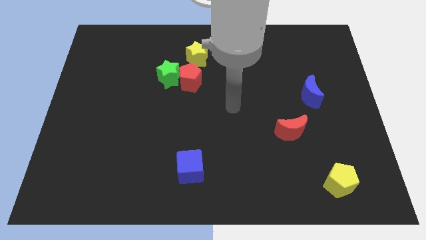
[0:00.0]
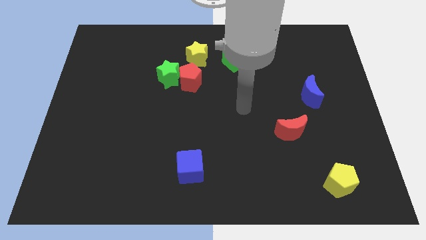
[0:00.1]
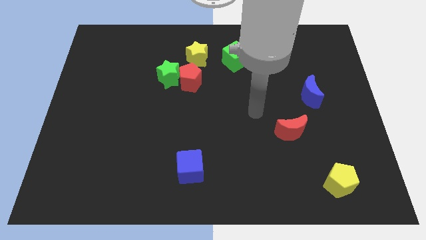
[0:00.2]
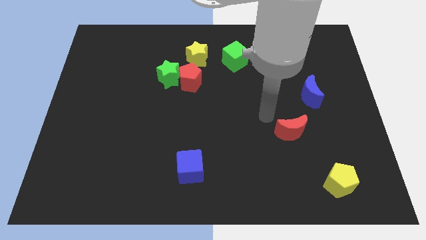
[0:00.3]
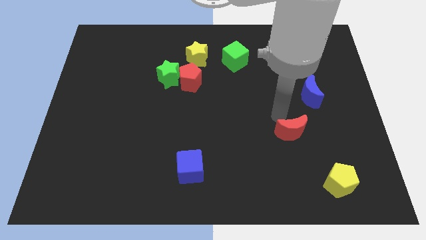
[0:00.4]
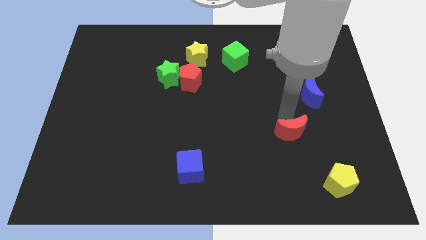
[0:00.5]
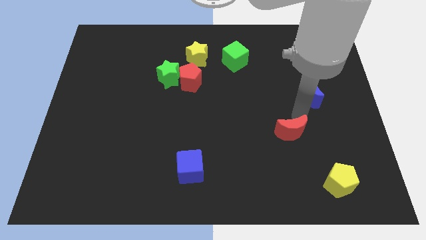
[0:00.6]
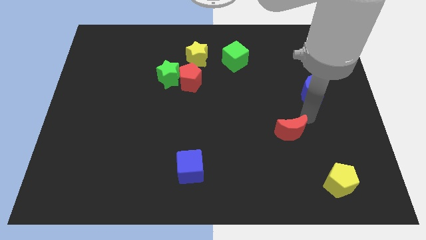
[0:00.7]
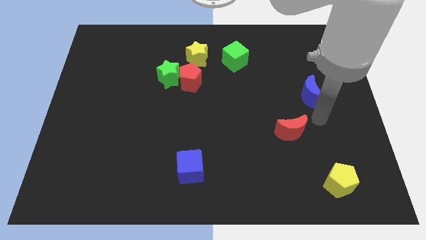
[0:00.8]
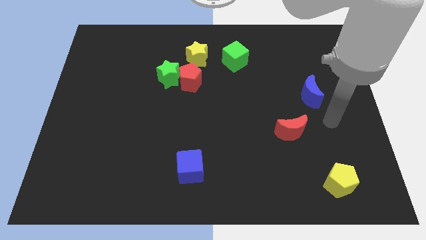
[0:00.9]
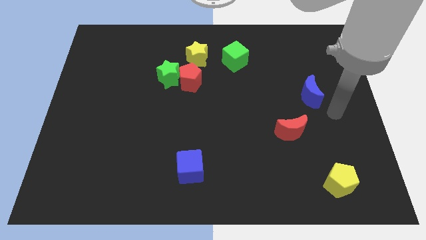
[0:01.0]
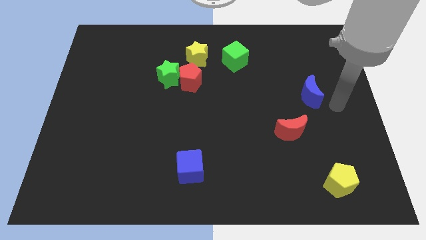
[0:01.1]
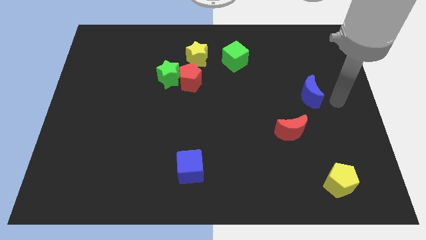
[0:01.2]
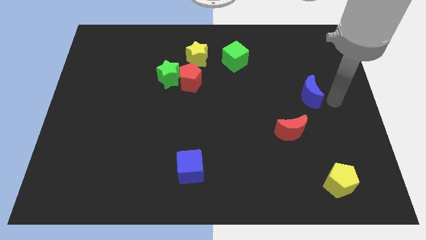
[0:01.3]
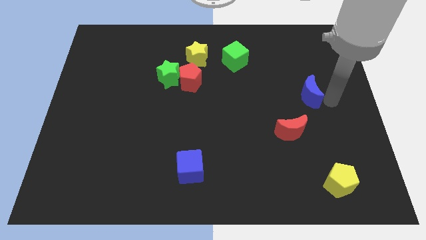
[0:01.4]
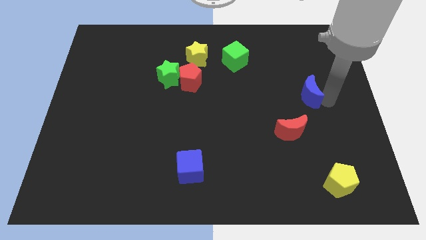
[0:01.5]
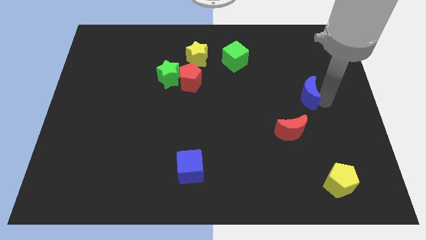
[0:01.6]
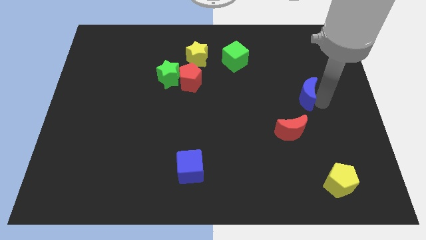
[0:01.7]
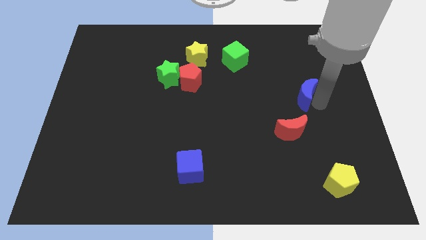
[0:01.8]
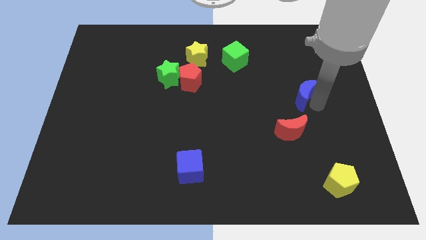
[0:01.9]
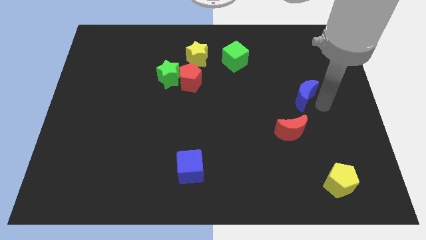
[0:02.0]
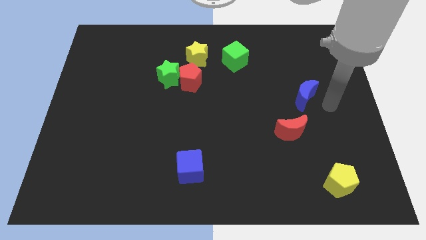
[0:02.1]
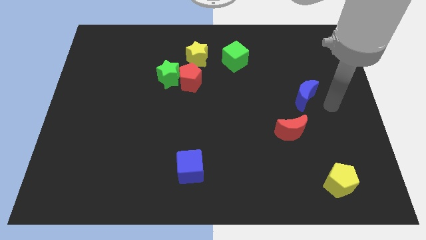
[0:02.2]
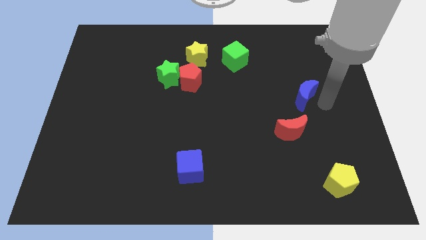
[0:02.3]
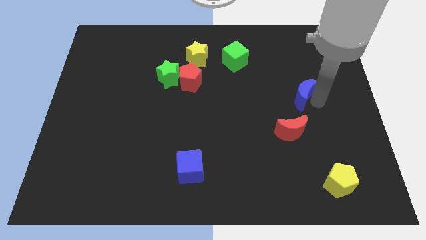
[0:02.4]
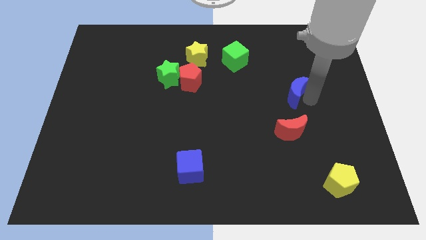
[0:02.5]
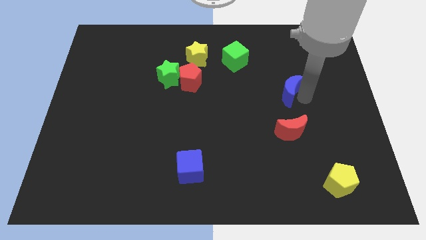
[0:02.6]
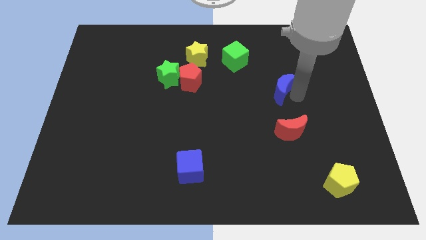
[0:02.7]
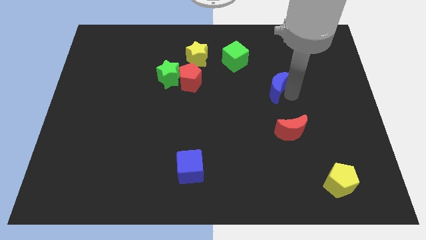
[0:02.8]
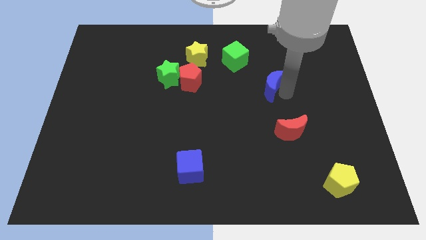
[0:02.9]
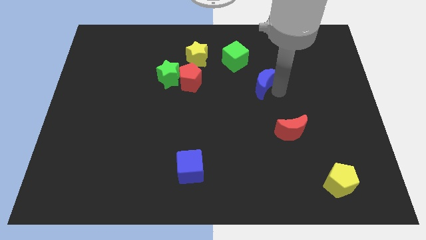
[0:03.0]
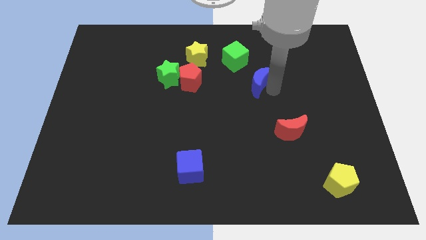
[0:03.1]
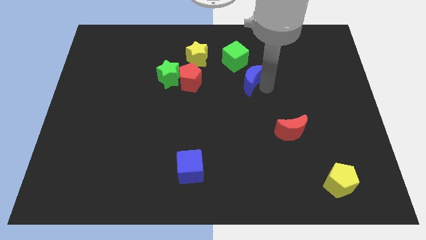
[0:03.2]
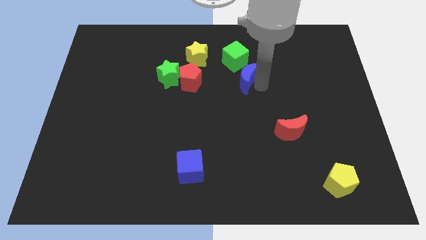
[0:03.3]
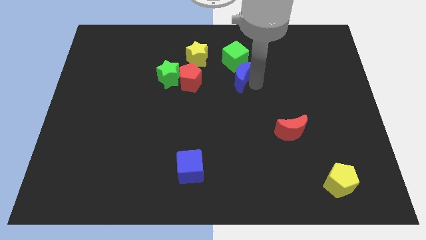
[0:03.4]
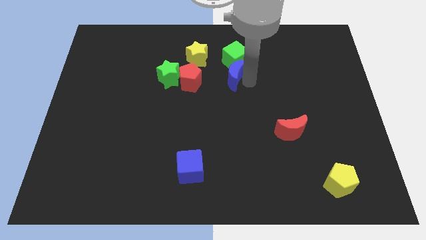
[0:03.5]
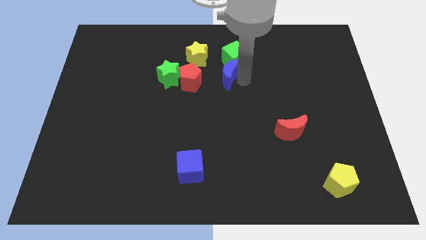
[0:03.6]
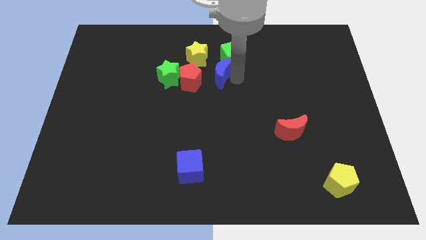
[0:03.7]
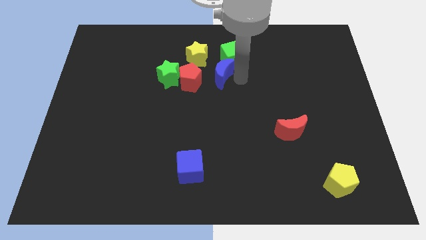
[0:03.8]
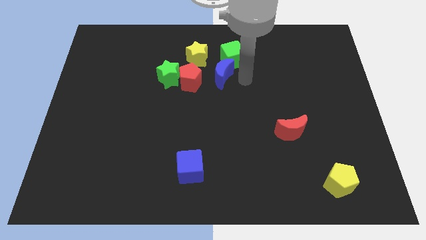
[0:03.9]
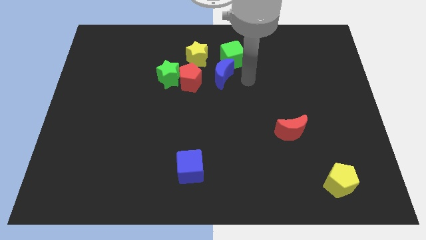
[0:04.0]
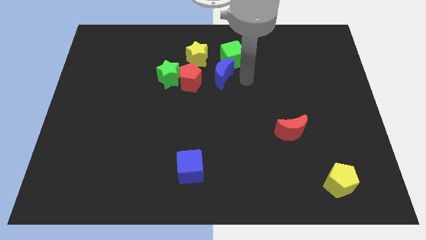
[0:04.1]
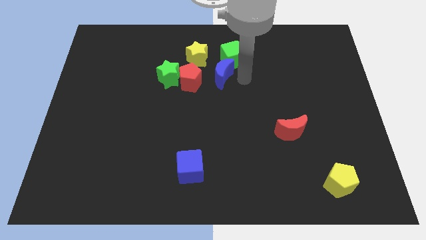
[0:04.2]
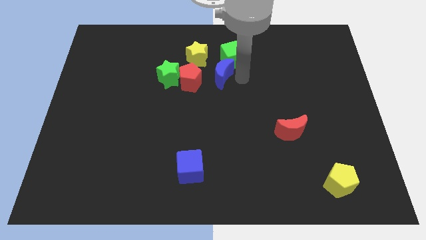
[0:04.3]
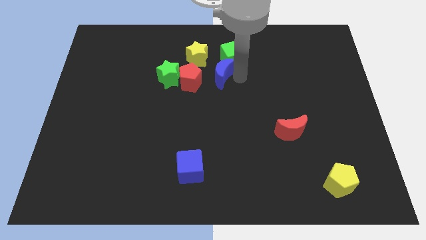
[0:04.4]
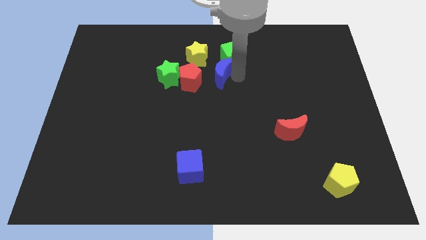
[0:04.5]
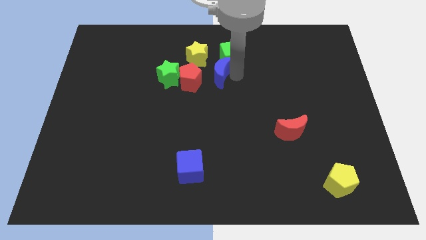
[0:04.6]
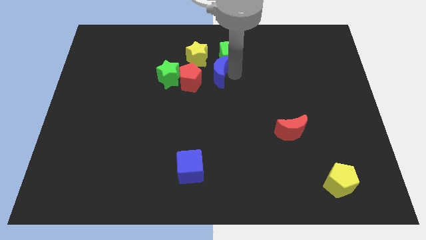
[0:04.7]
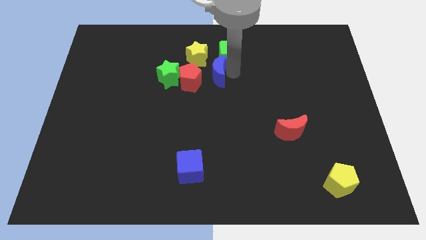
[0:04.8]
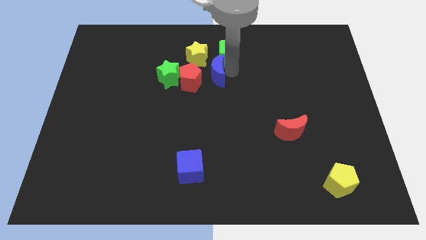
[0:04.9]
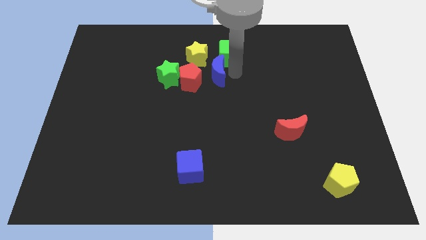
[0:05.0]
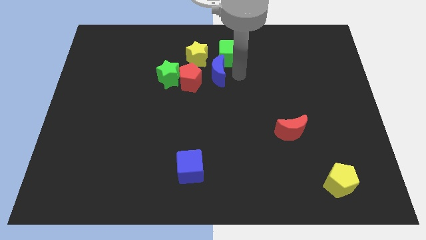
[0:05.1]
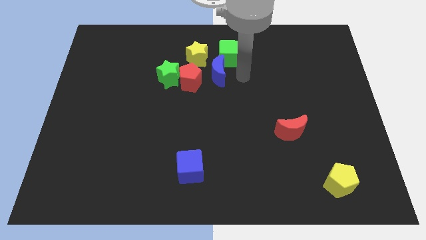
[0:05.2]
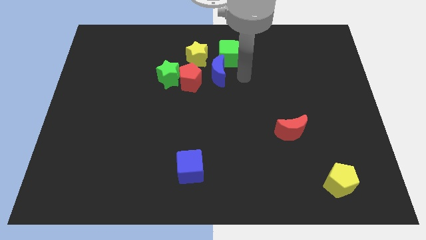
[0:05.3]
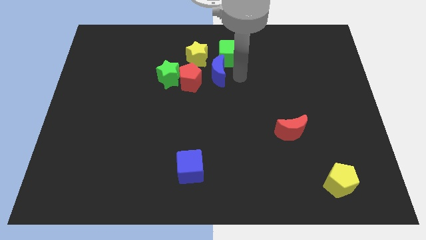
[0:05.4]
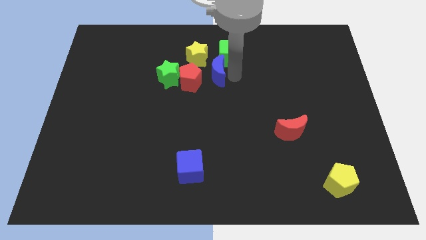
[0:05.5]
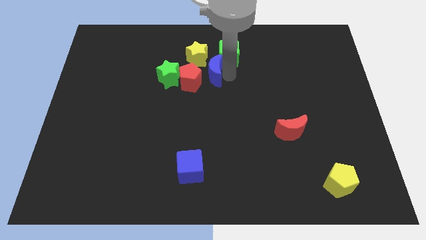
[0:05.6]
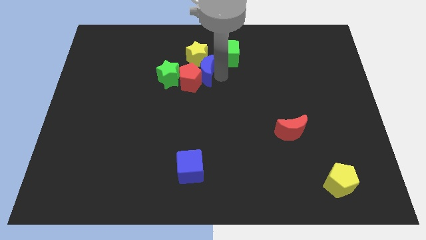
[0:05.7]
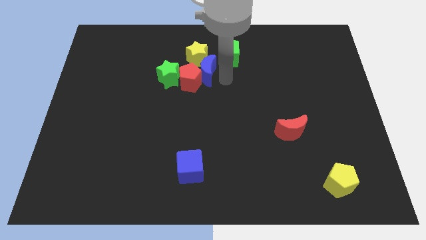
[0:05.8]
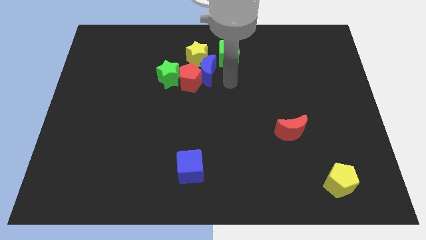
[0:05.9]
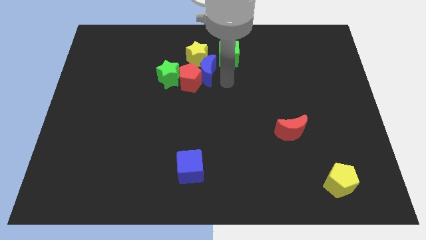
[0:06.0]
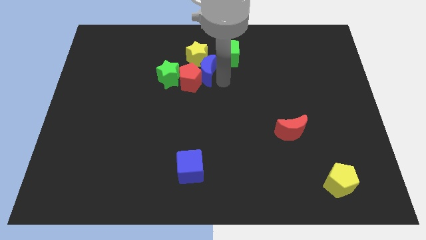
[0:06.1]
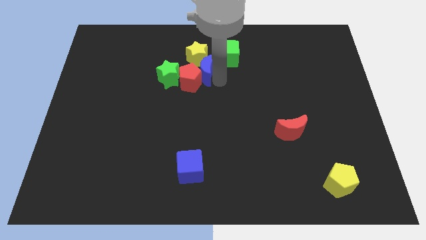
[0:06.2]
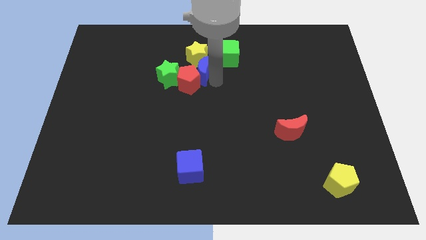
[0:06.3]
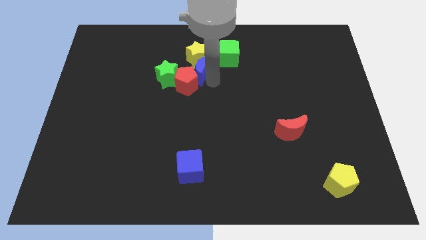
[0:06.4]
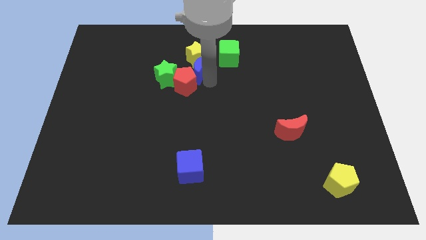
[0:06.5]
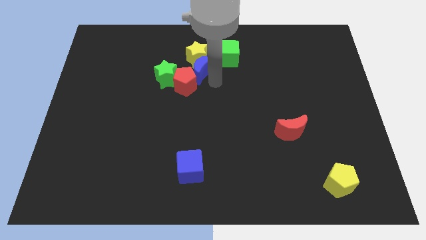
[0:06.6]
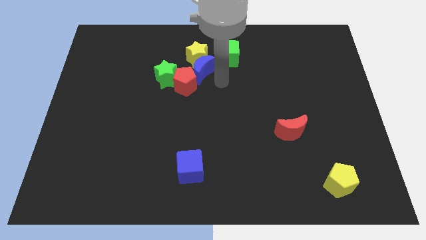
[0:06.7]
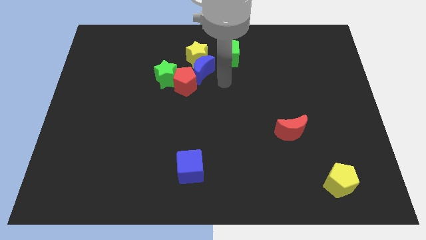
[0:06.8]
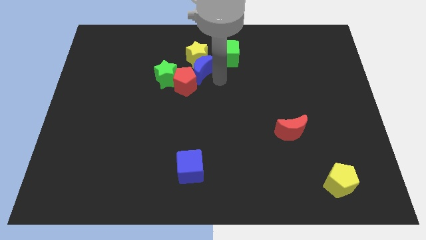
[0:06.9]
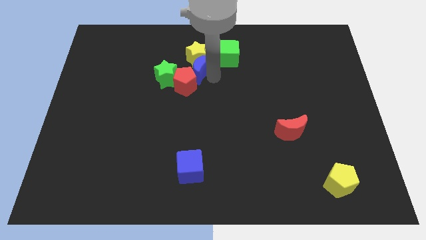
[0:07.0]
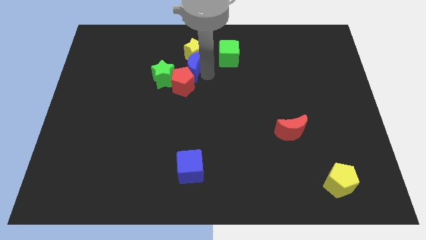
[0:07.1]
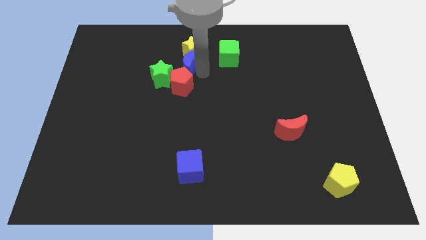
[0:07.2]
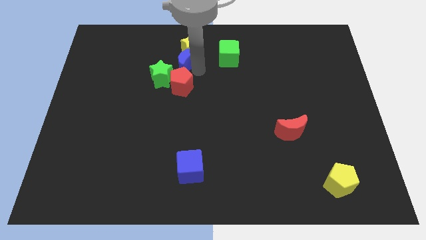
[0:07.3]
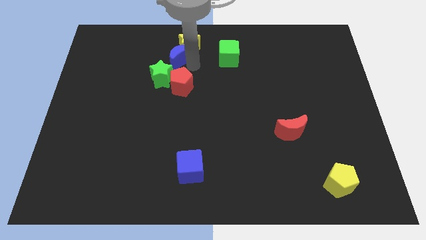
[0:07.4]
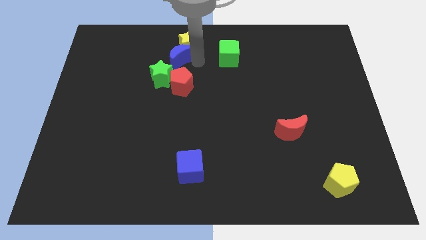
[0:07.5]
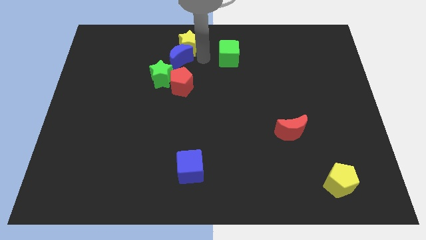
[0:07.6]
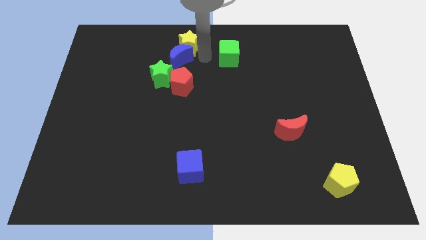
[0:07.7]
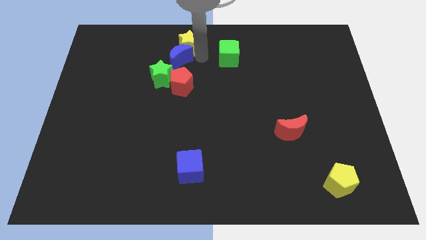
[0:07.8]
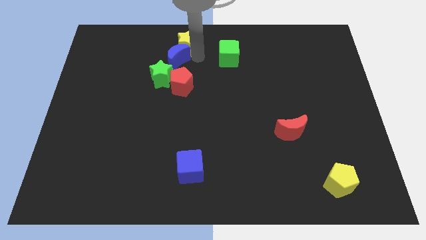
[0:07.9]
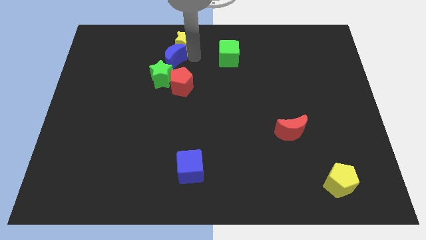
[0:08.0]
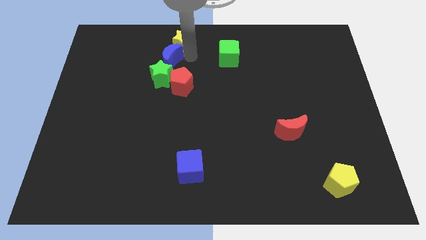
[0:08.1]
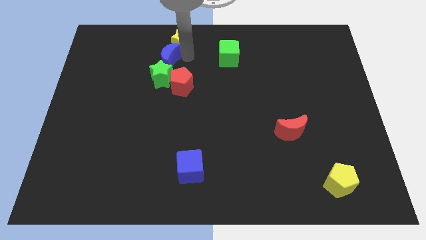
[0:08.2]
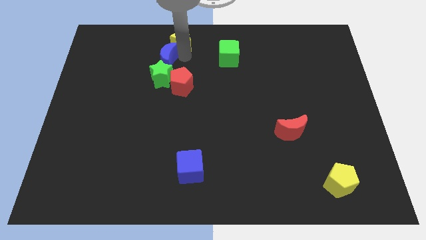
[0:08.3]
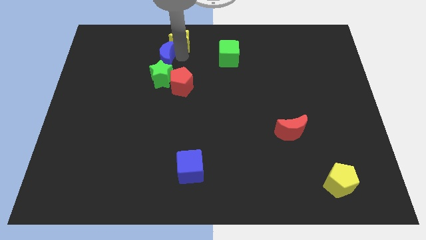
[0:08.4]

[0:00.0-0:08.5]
move the blue moon to the top left side of the green star
